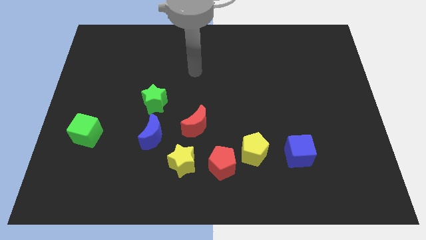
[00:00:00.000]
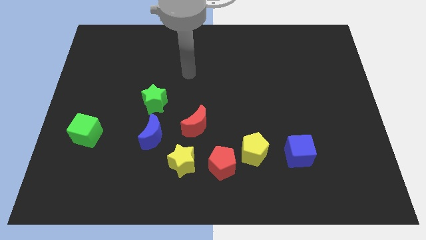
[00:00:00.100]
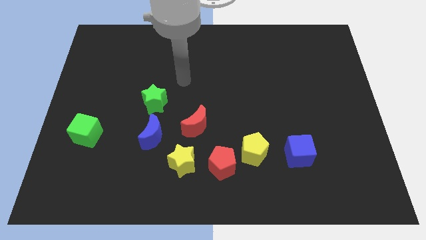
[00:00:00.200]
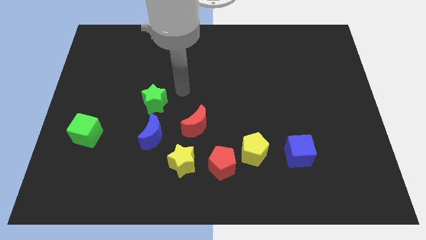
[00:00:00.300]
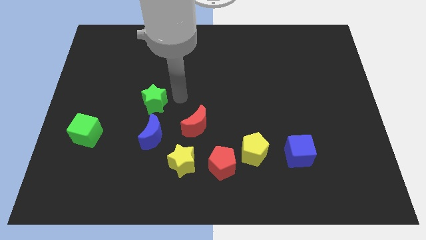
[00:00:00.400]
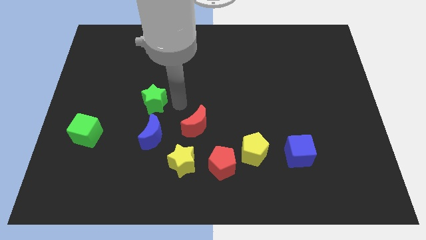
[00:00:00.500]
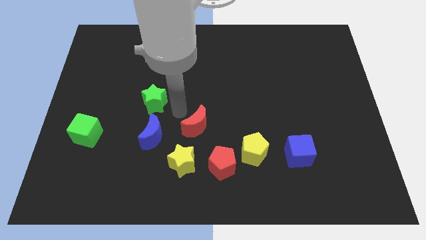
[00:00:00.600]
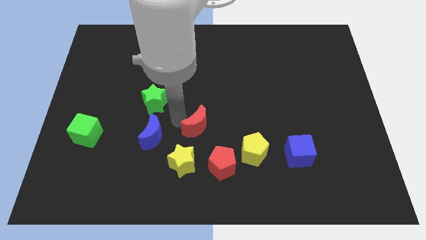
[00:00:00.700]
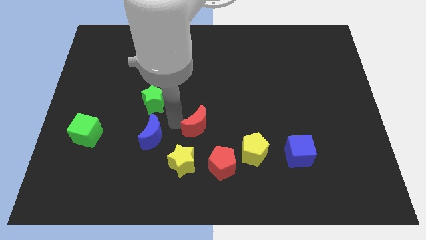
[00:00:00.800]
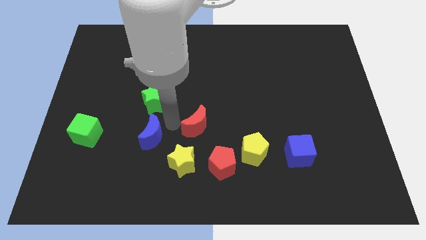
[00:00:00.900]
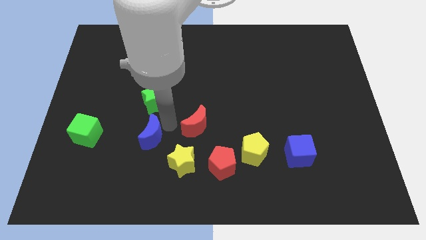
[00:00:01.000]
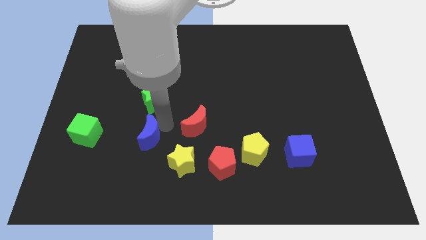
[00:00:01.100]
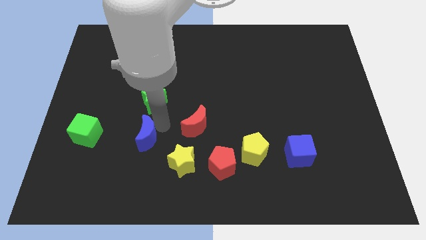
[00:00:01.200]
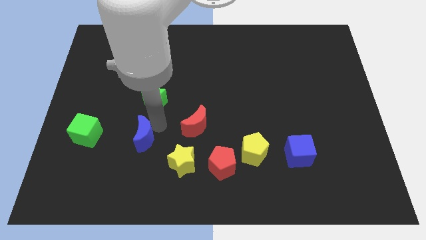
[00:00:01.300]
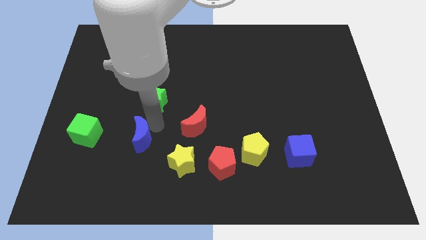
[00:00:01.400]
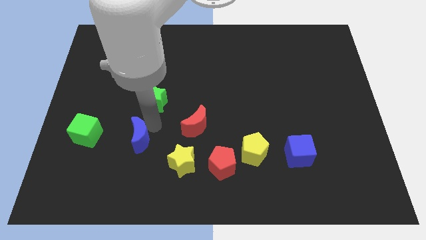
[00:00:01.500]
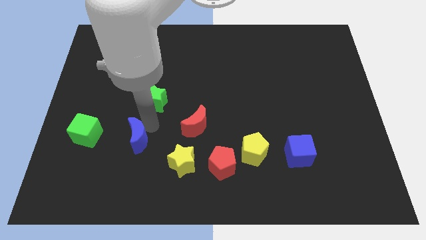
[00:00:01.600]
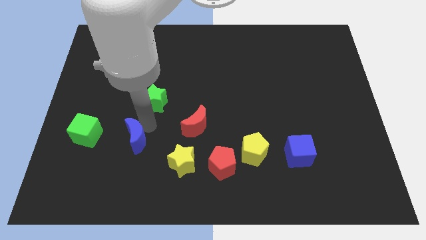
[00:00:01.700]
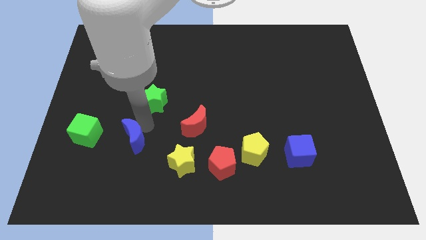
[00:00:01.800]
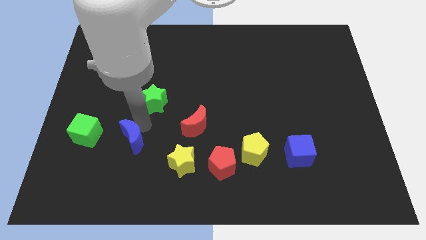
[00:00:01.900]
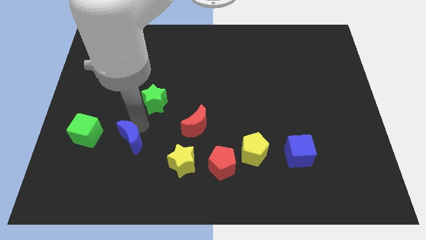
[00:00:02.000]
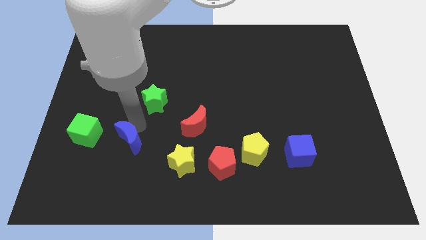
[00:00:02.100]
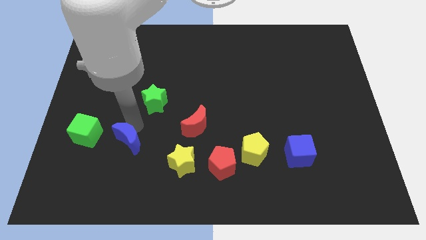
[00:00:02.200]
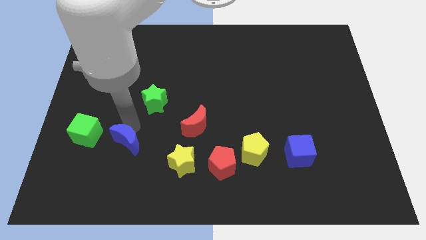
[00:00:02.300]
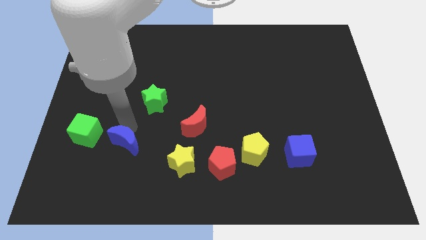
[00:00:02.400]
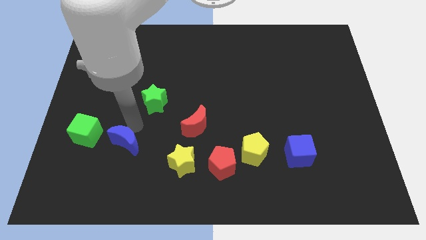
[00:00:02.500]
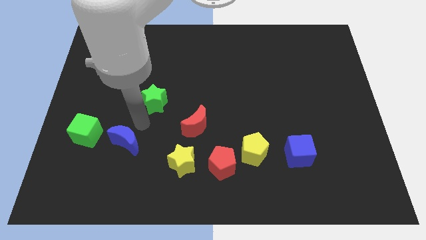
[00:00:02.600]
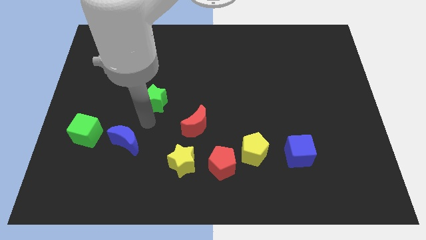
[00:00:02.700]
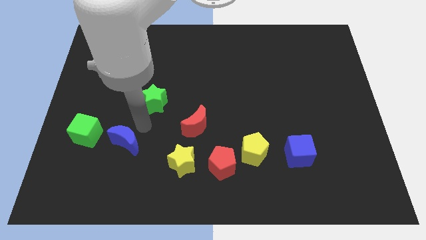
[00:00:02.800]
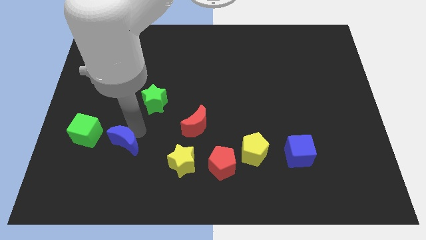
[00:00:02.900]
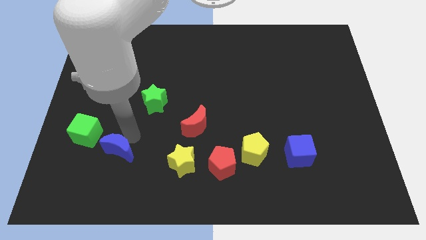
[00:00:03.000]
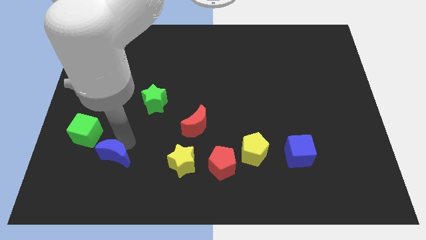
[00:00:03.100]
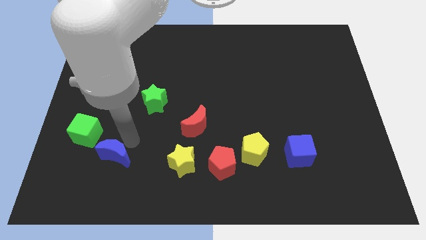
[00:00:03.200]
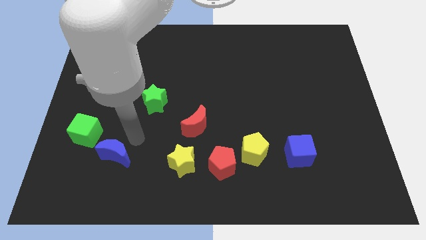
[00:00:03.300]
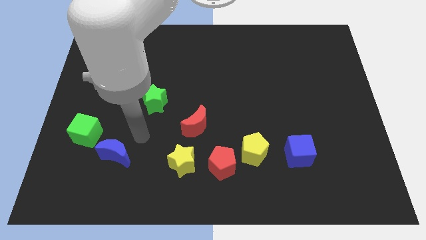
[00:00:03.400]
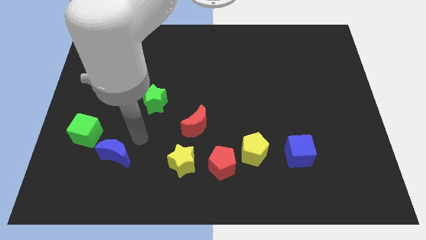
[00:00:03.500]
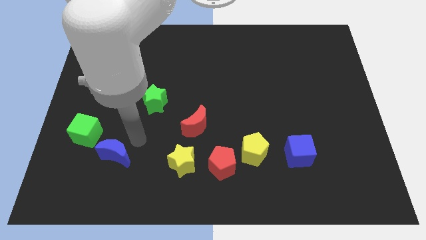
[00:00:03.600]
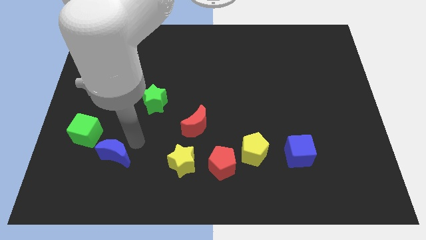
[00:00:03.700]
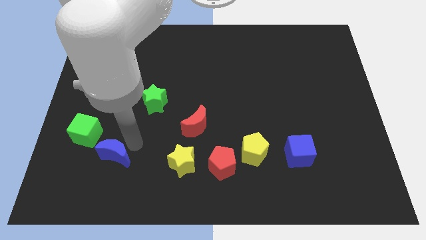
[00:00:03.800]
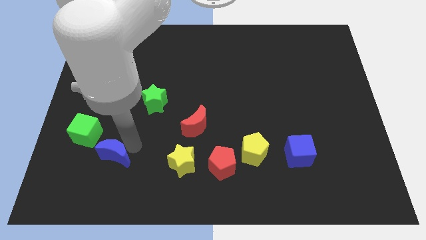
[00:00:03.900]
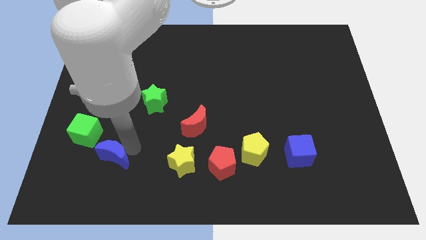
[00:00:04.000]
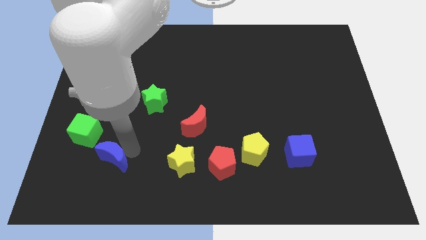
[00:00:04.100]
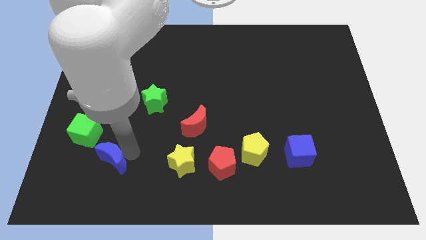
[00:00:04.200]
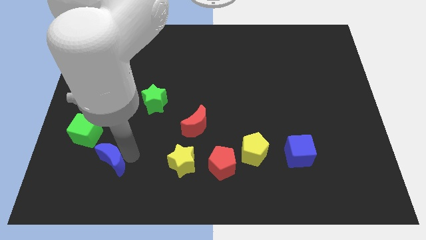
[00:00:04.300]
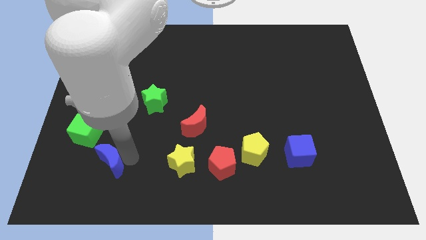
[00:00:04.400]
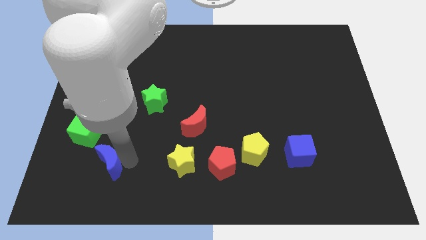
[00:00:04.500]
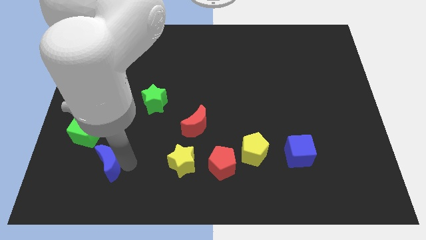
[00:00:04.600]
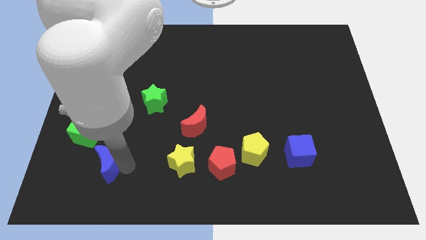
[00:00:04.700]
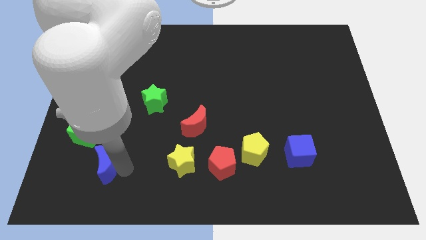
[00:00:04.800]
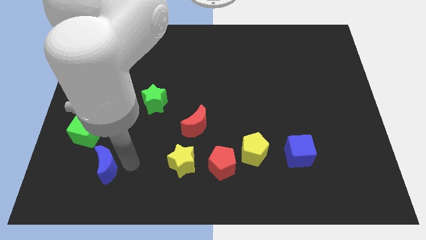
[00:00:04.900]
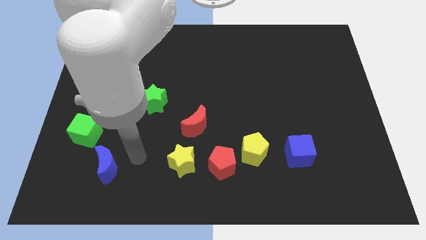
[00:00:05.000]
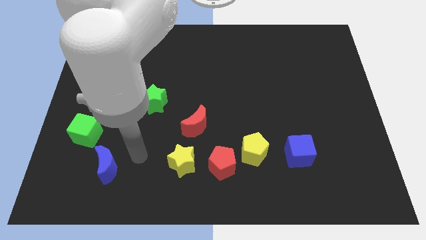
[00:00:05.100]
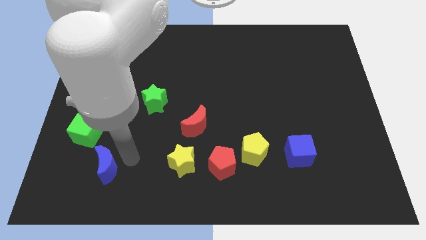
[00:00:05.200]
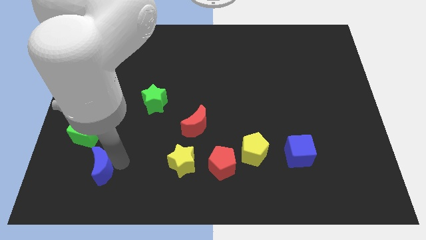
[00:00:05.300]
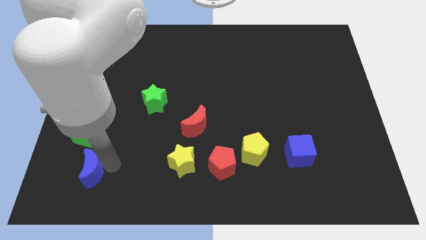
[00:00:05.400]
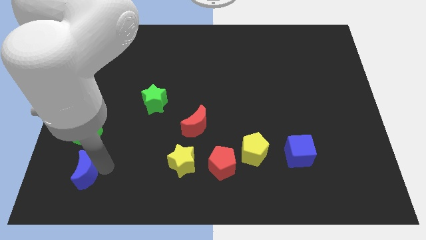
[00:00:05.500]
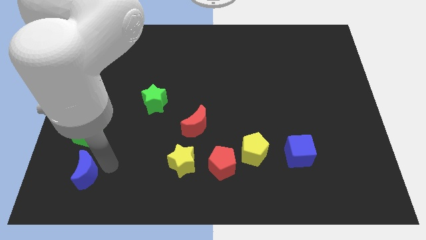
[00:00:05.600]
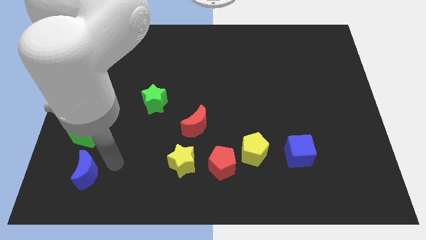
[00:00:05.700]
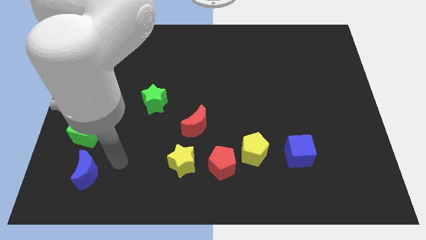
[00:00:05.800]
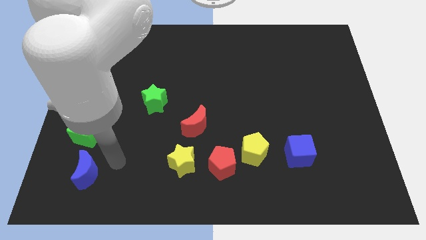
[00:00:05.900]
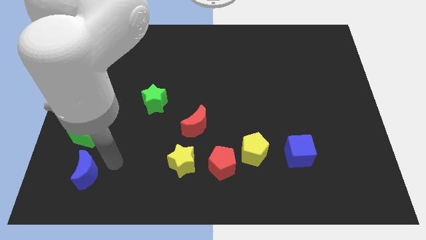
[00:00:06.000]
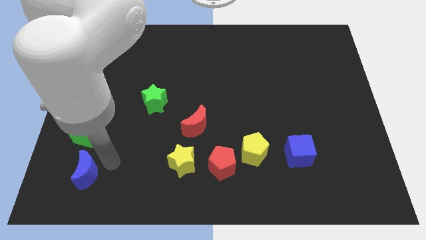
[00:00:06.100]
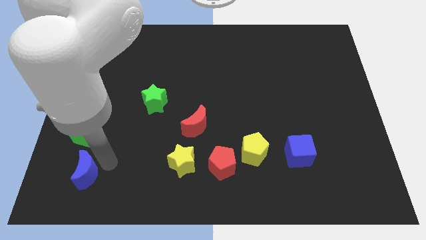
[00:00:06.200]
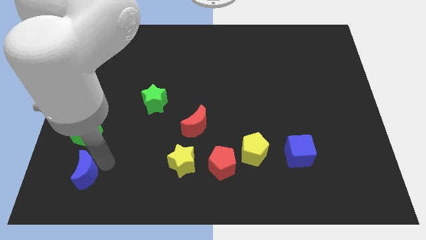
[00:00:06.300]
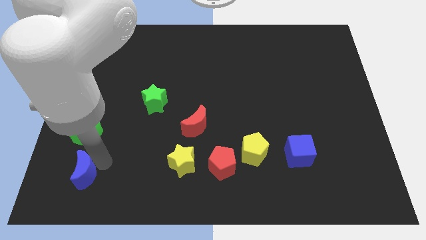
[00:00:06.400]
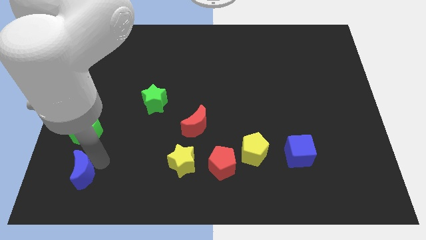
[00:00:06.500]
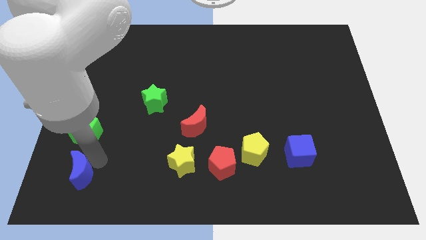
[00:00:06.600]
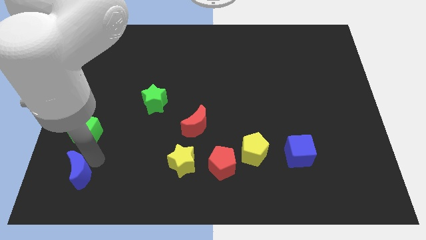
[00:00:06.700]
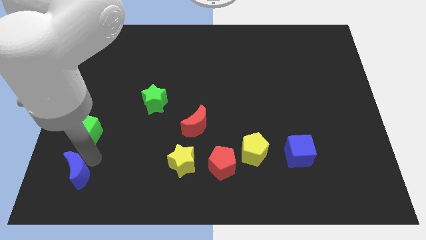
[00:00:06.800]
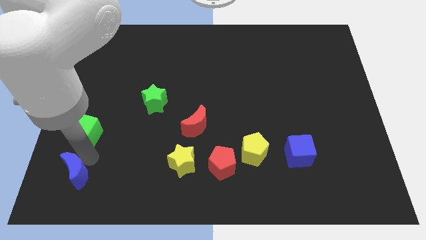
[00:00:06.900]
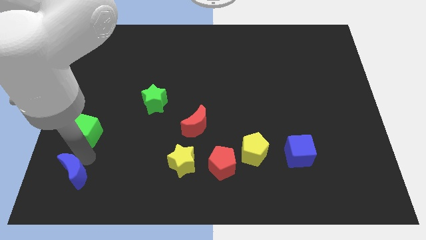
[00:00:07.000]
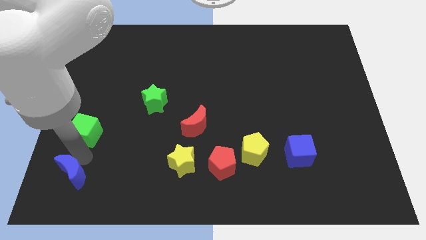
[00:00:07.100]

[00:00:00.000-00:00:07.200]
move the blue moon to the bottom left corner
